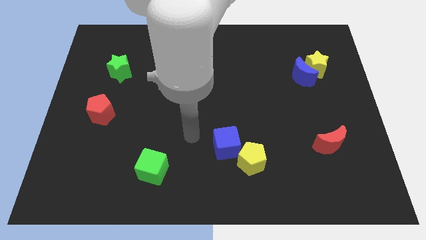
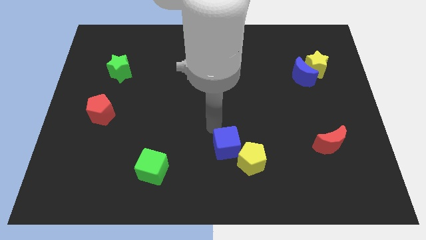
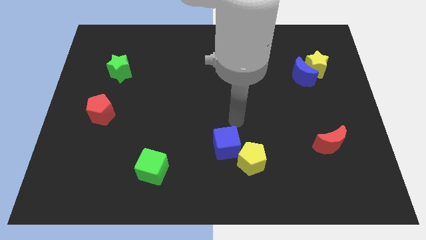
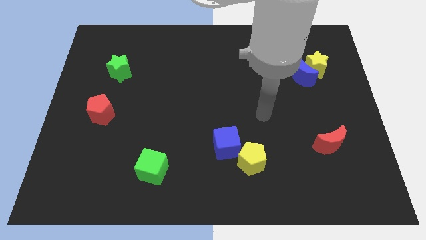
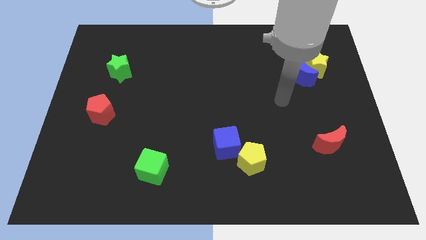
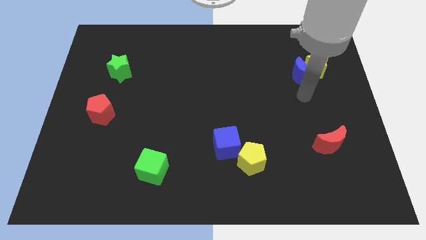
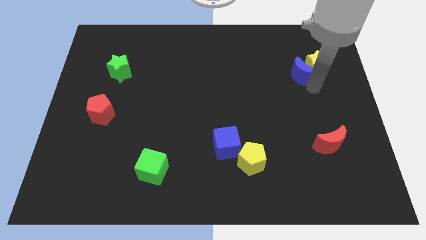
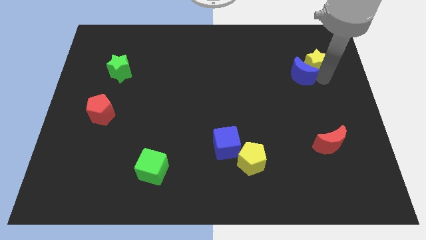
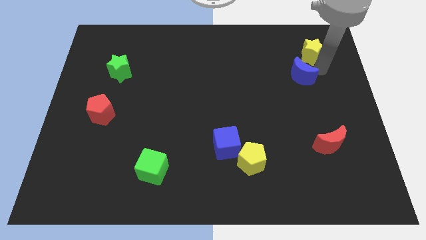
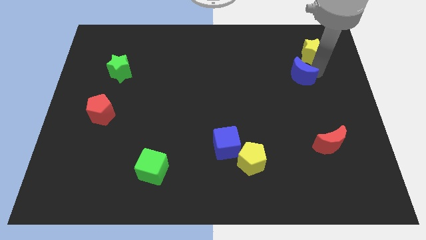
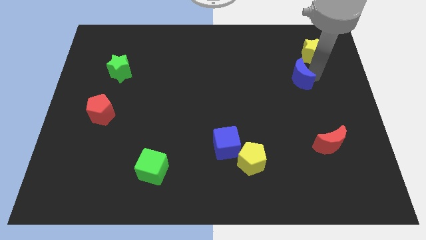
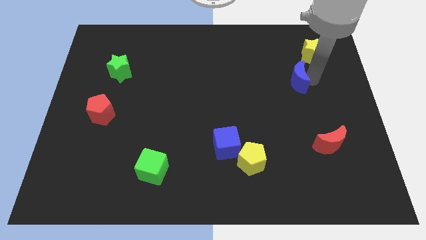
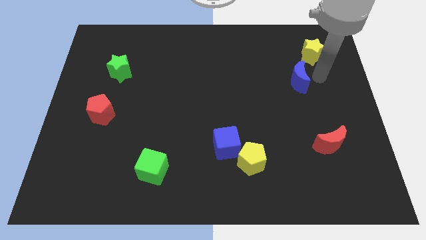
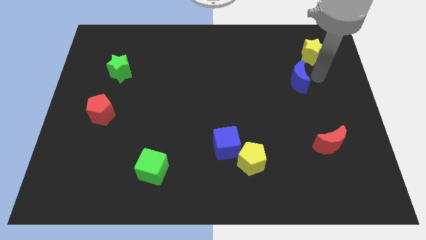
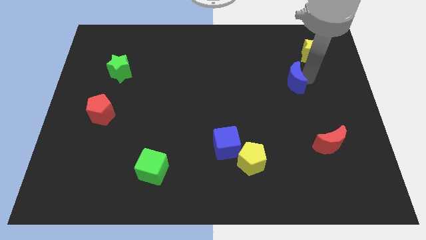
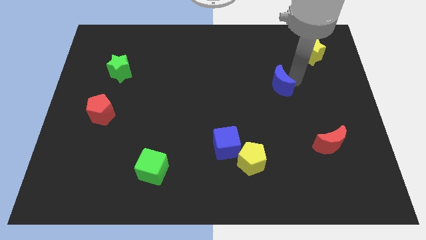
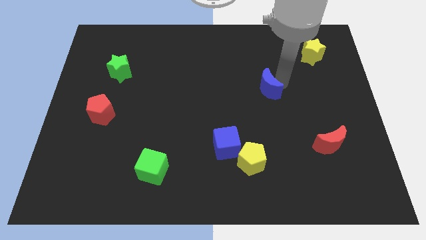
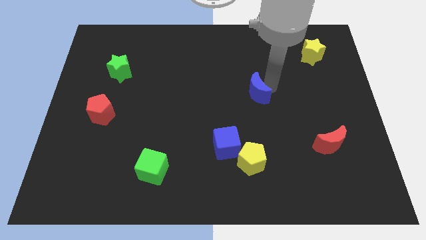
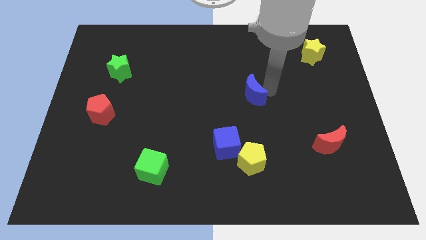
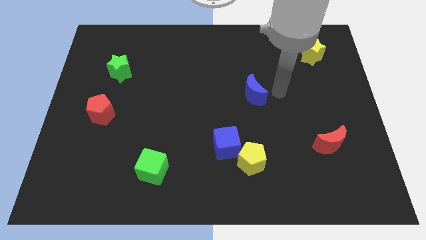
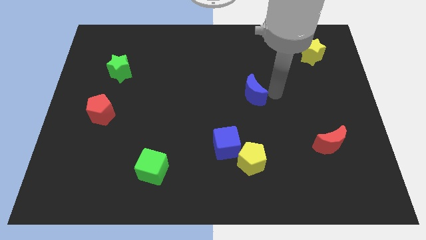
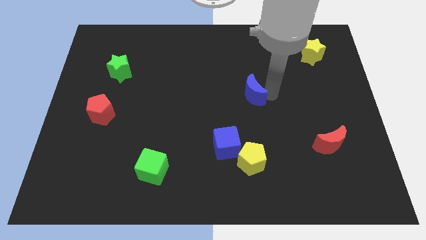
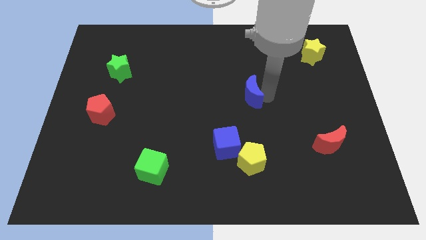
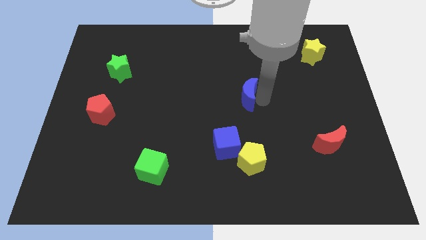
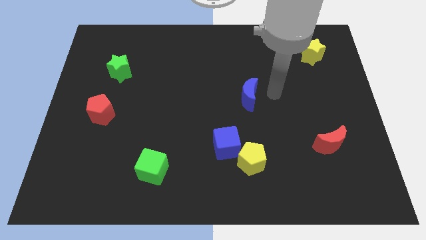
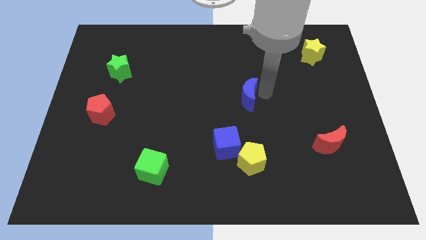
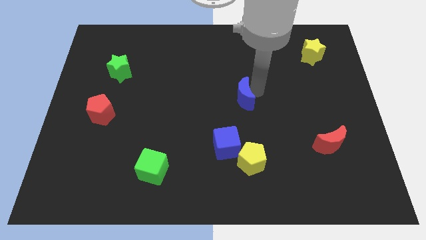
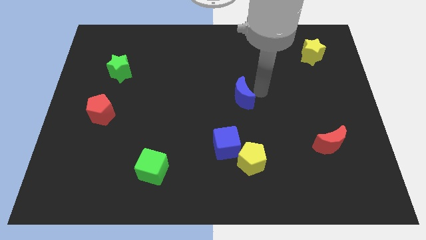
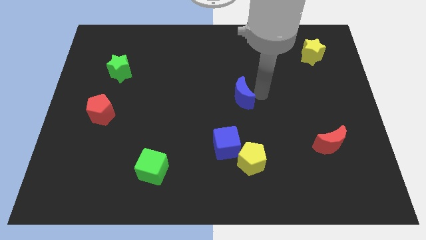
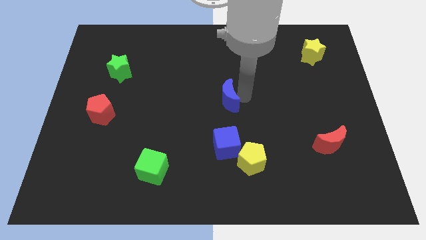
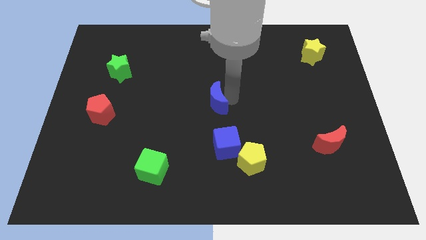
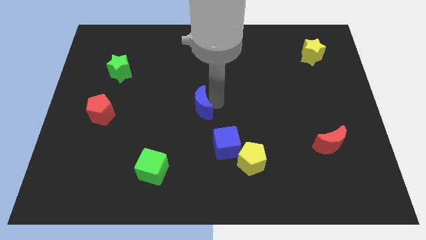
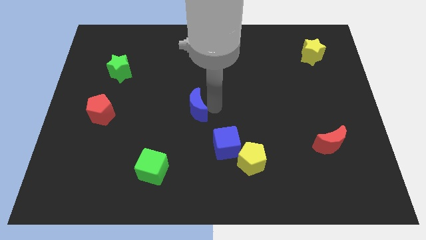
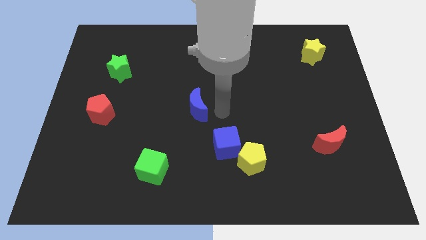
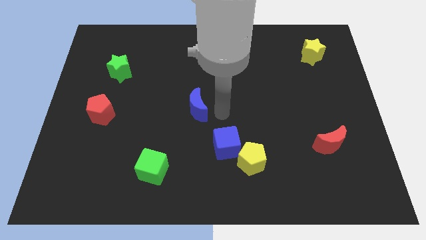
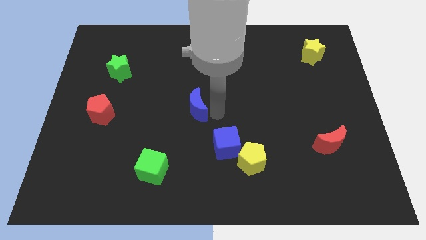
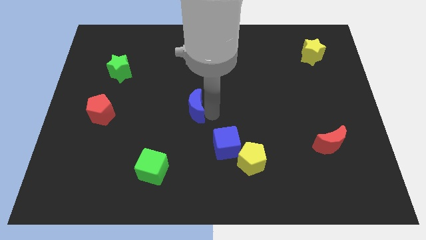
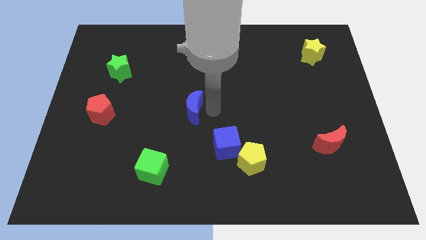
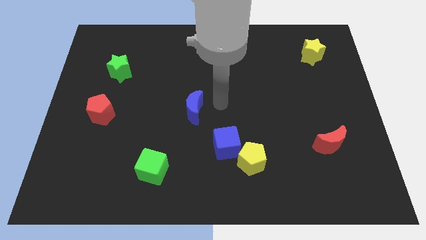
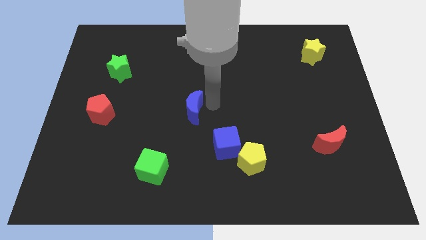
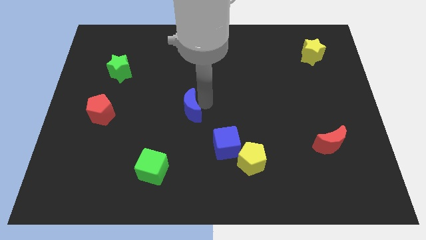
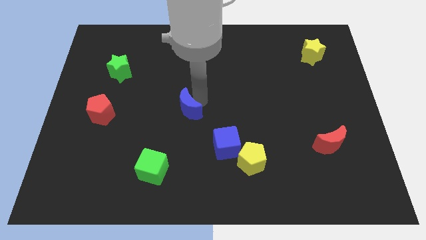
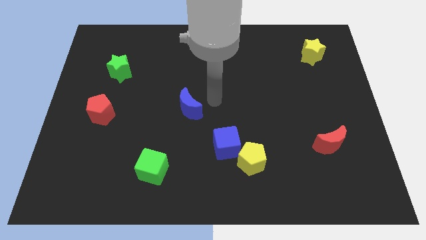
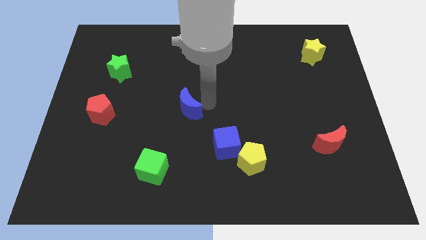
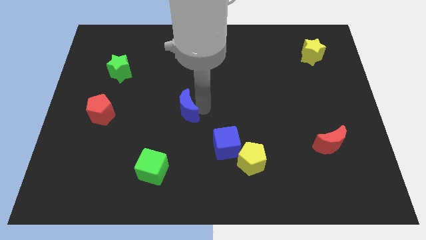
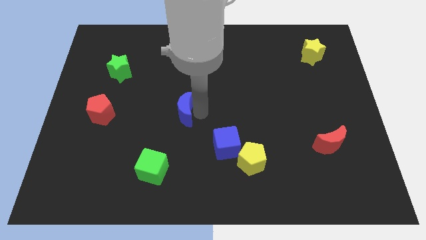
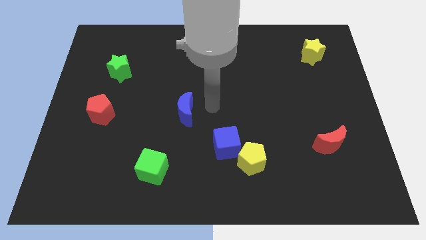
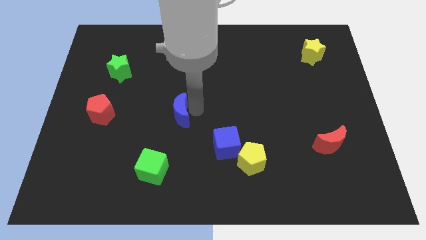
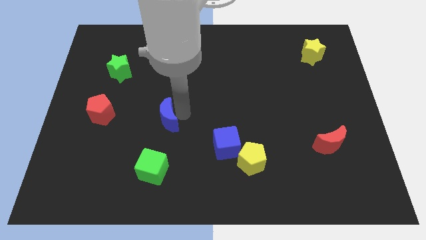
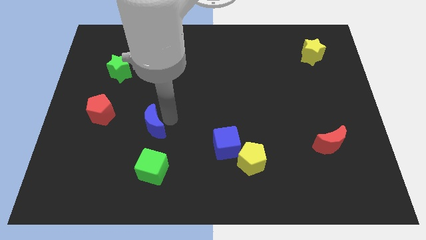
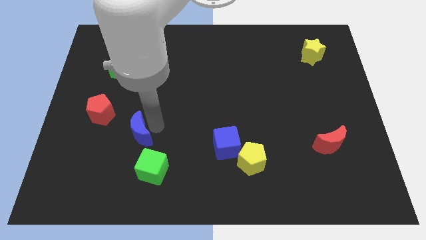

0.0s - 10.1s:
push the blue moon diagonally down and to the right of the red pentagon
